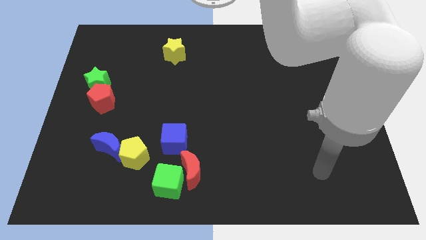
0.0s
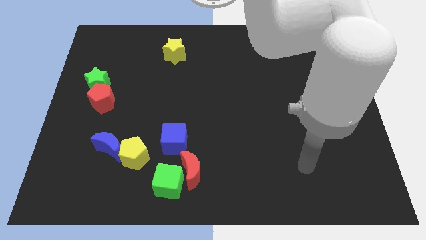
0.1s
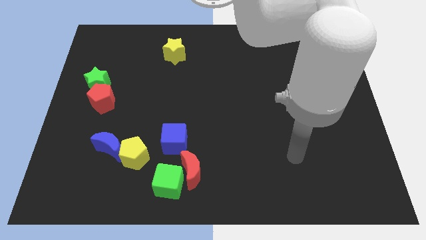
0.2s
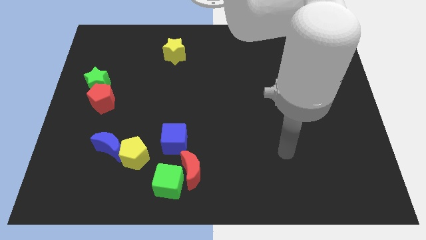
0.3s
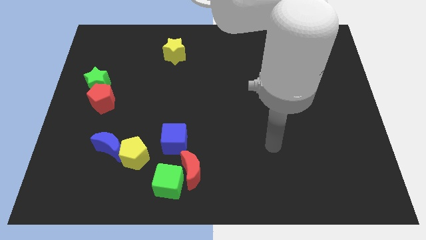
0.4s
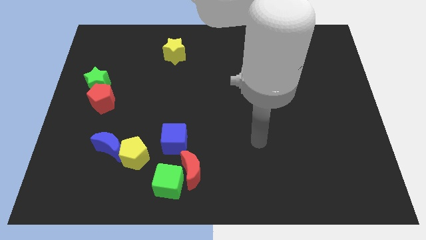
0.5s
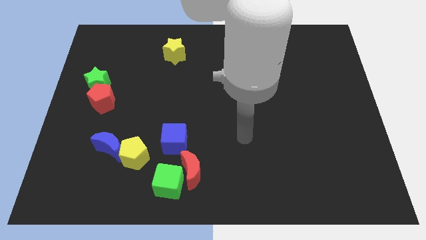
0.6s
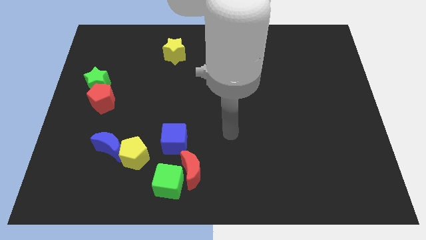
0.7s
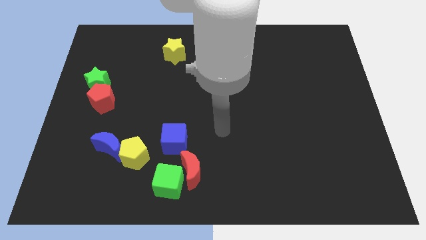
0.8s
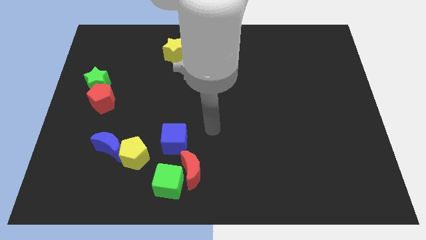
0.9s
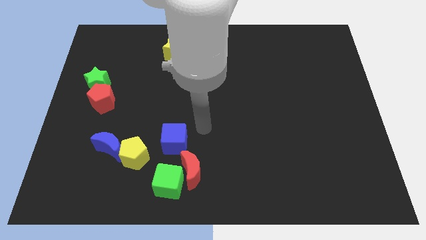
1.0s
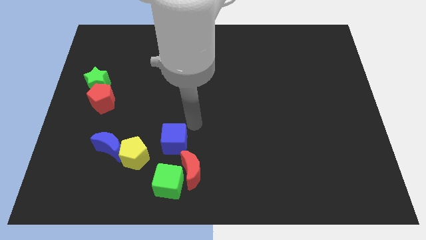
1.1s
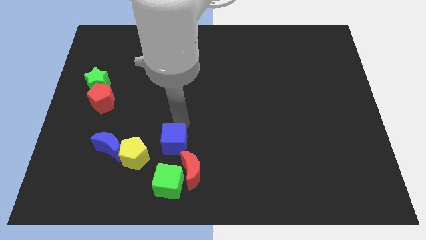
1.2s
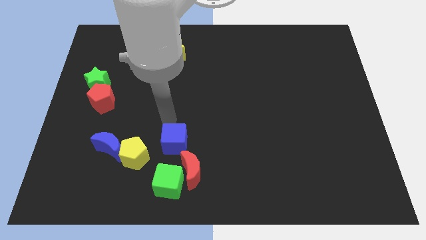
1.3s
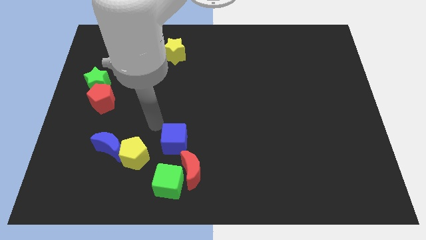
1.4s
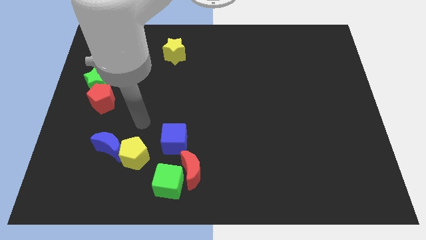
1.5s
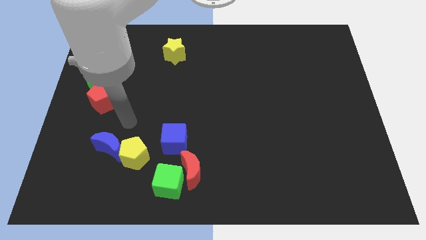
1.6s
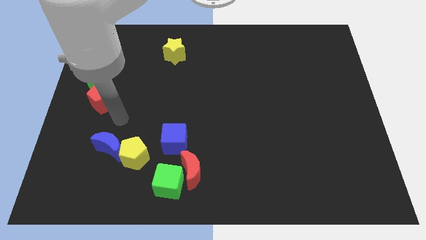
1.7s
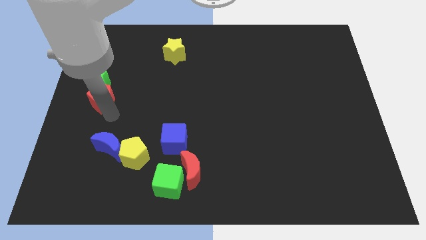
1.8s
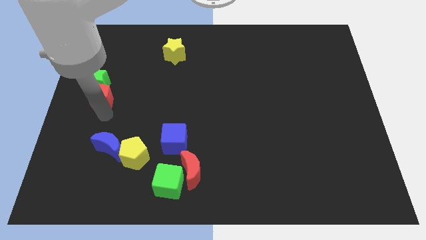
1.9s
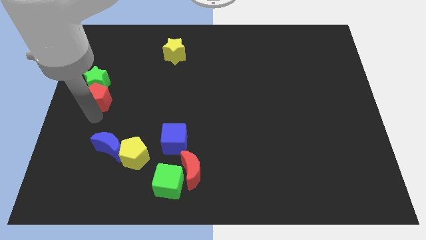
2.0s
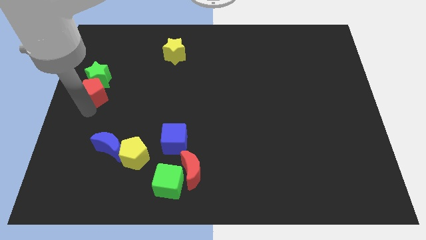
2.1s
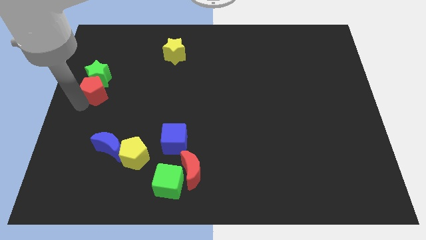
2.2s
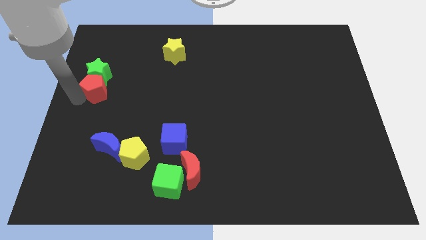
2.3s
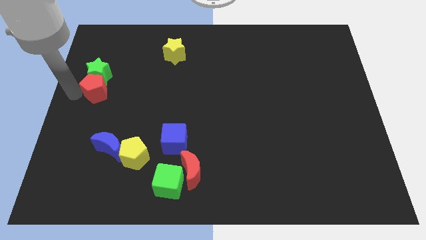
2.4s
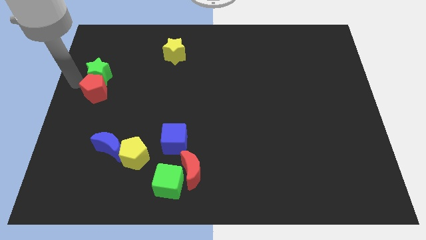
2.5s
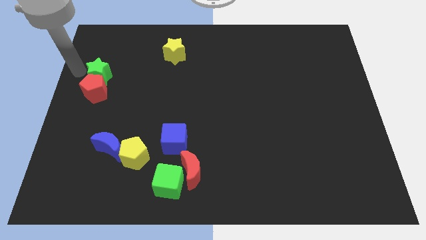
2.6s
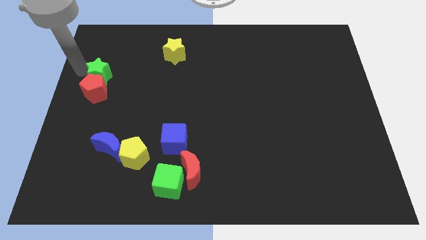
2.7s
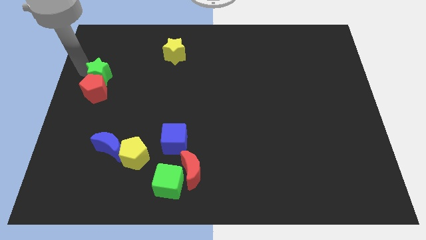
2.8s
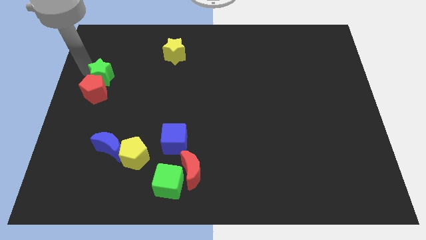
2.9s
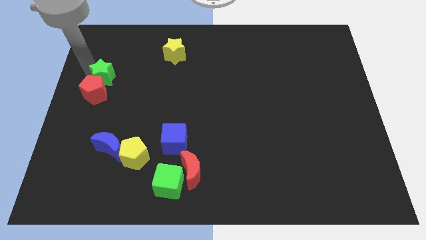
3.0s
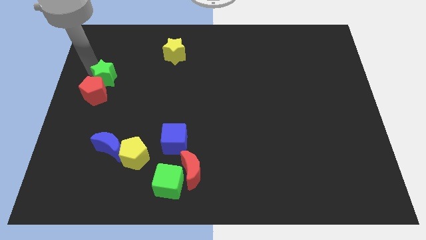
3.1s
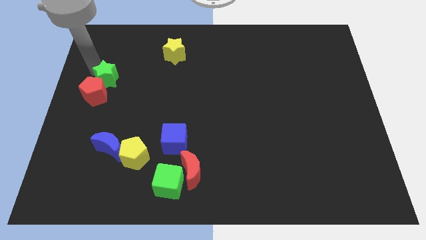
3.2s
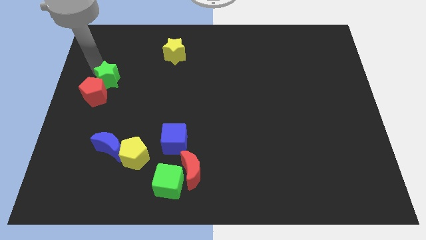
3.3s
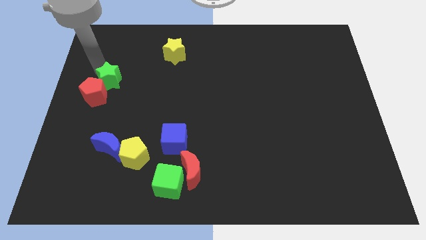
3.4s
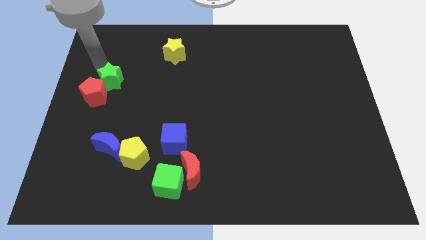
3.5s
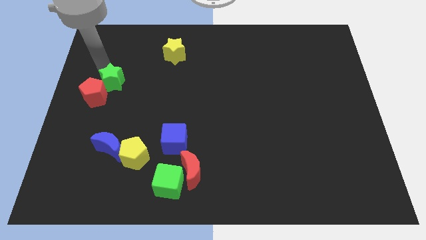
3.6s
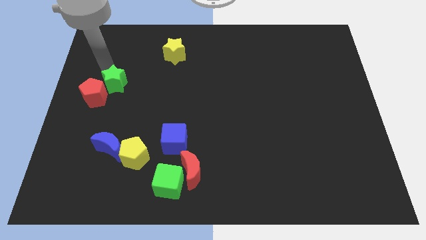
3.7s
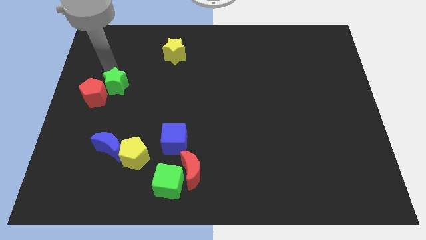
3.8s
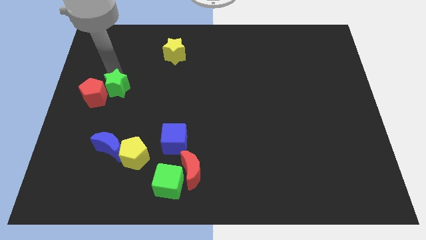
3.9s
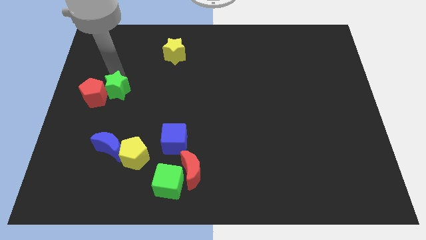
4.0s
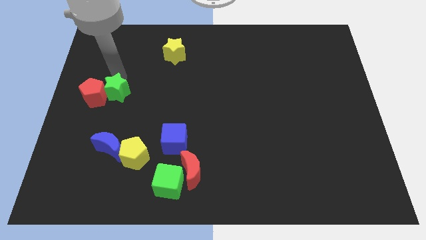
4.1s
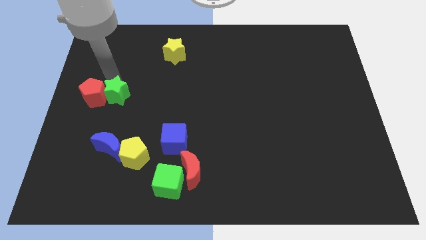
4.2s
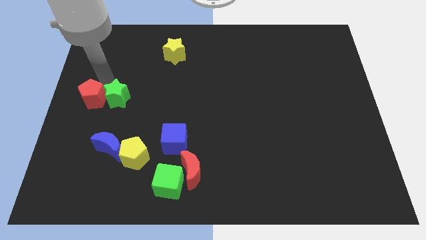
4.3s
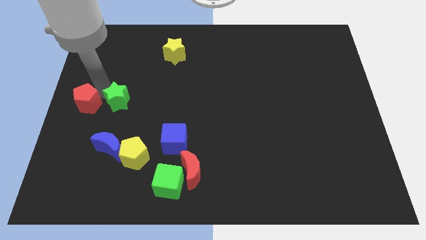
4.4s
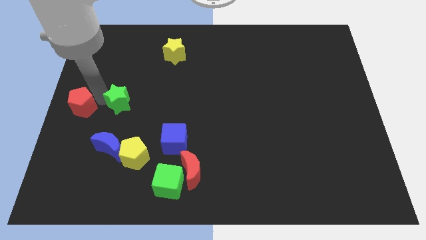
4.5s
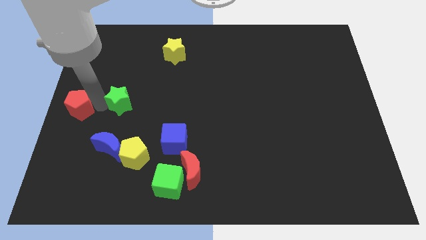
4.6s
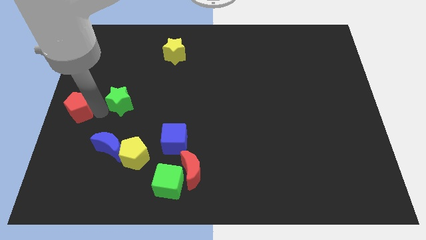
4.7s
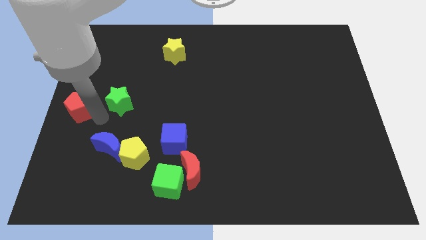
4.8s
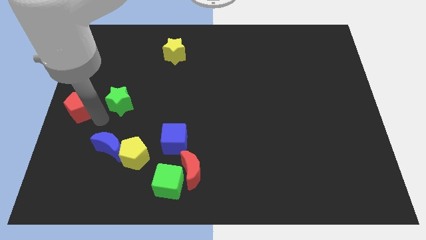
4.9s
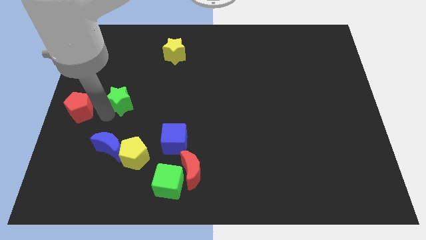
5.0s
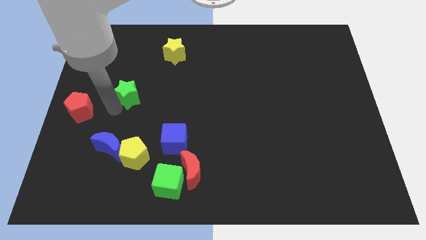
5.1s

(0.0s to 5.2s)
slightly move the green star to the right

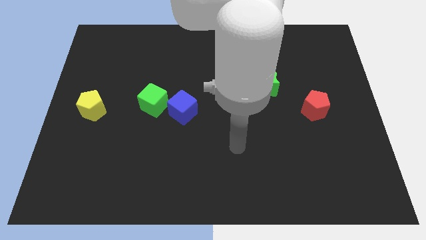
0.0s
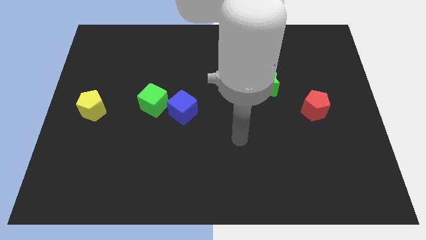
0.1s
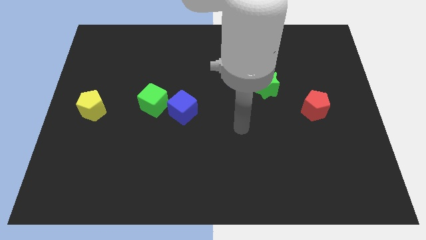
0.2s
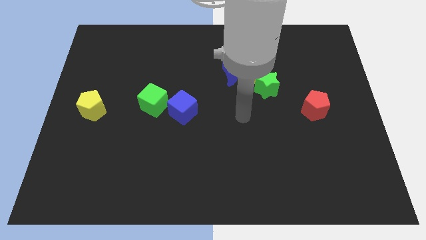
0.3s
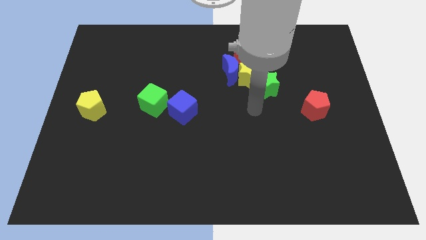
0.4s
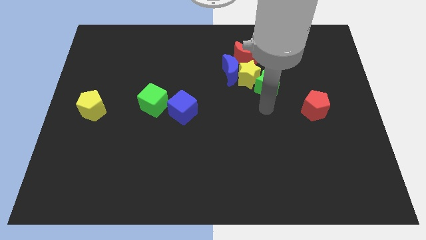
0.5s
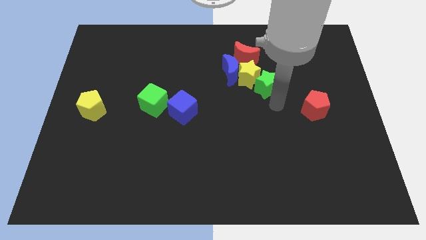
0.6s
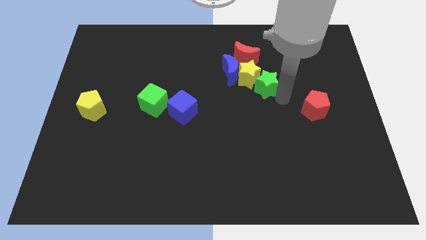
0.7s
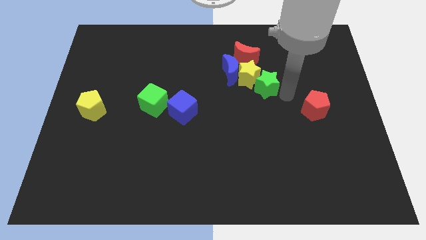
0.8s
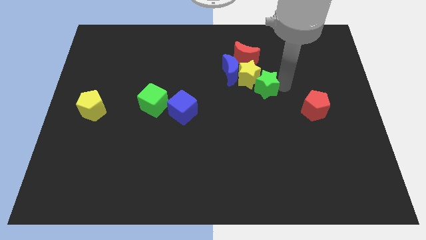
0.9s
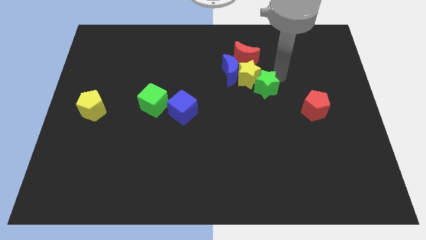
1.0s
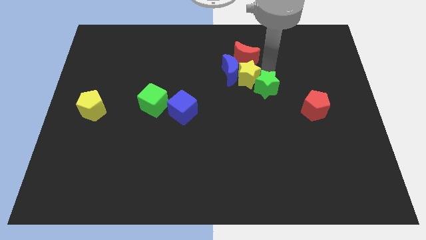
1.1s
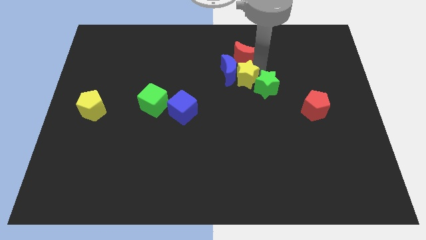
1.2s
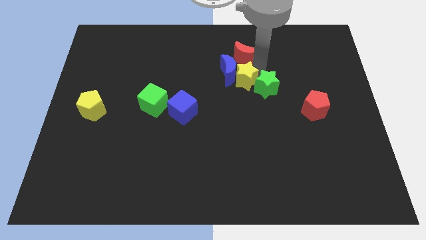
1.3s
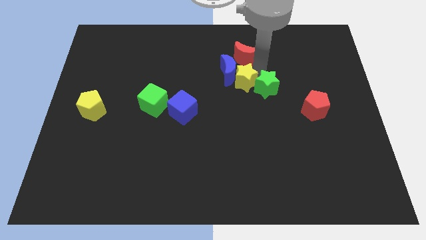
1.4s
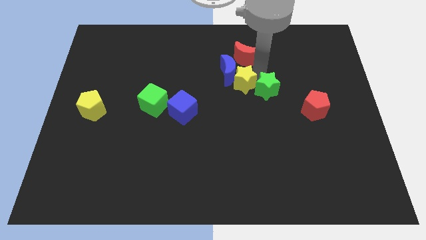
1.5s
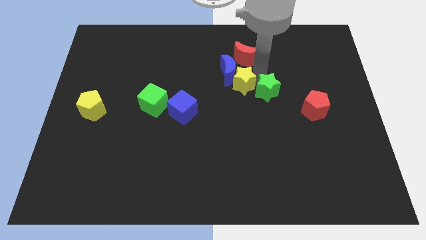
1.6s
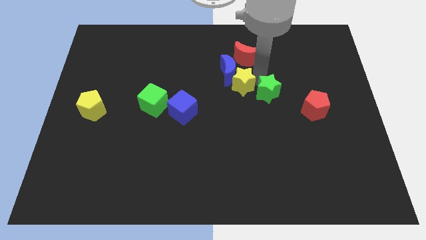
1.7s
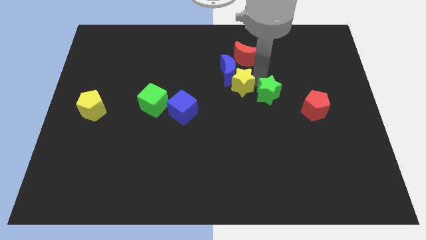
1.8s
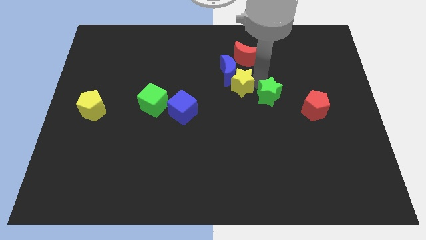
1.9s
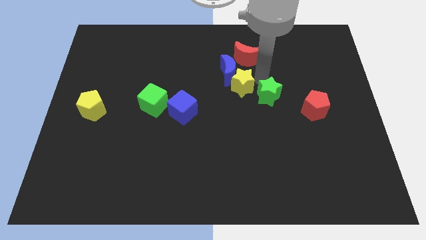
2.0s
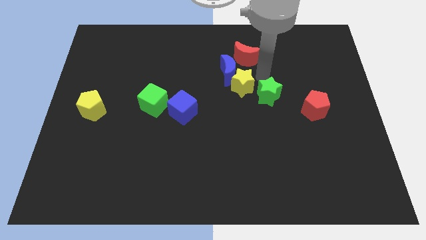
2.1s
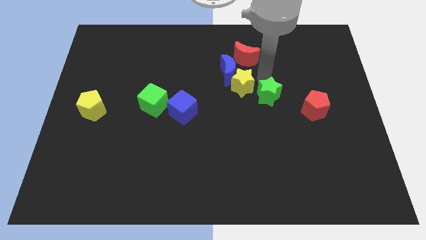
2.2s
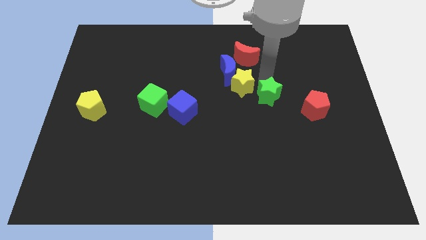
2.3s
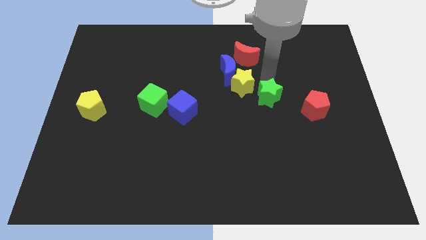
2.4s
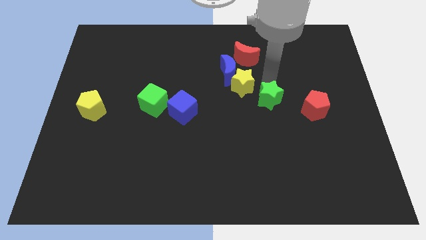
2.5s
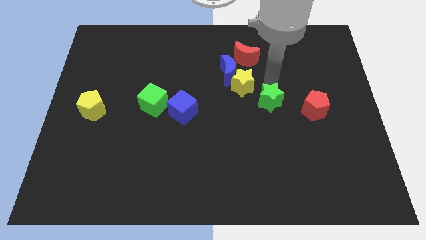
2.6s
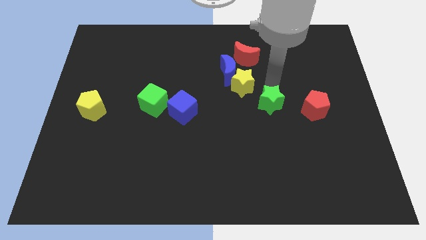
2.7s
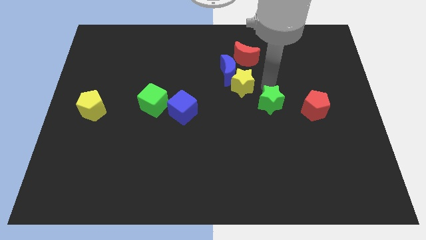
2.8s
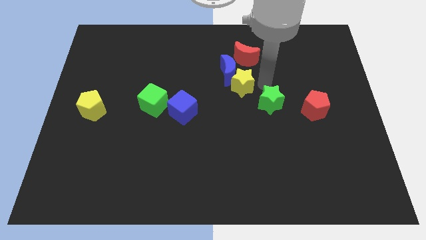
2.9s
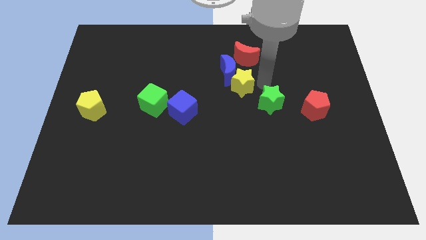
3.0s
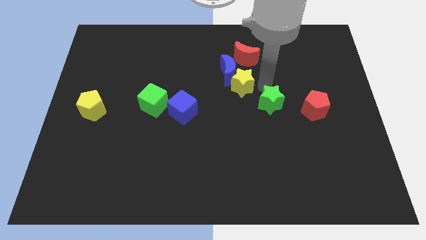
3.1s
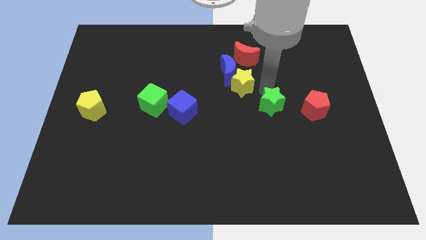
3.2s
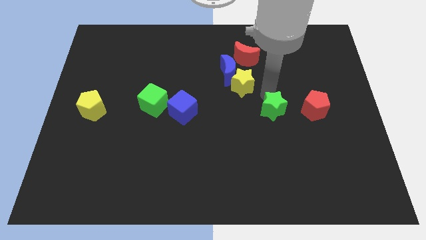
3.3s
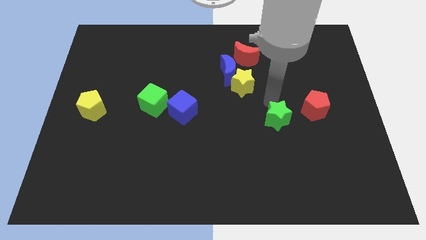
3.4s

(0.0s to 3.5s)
slightly push the green star downwards
